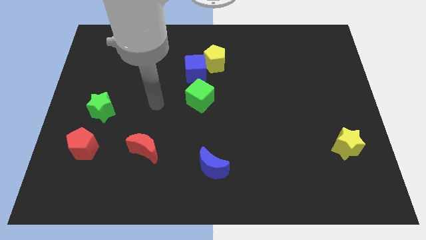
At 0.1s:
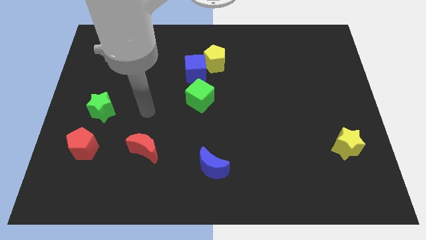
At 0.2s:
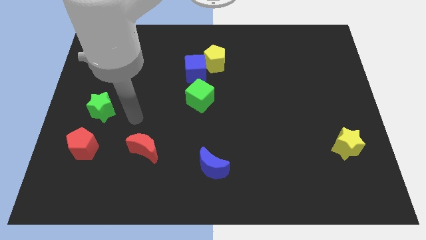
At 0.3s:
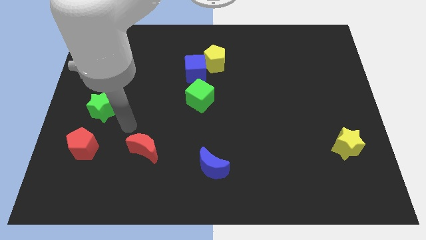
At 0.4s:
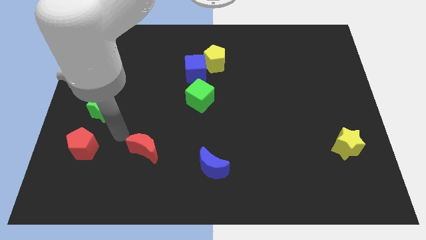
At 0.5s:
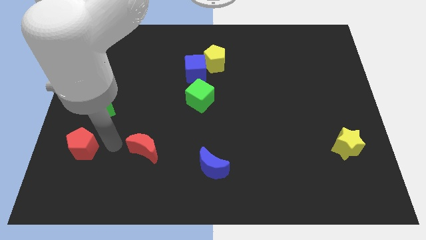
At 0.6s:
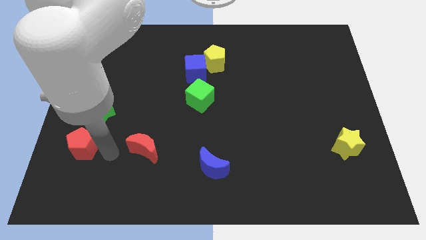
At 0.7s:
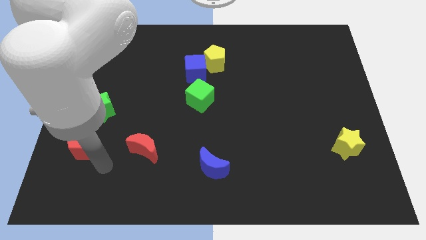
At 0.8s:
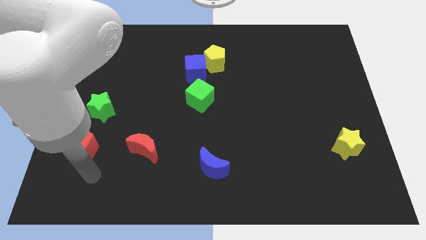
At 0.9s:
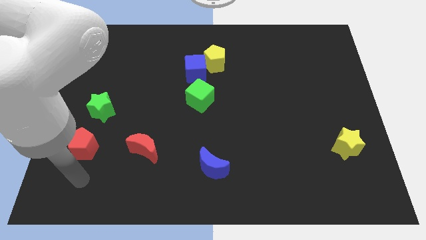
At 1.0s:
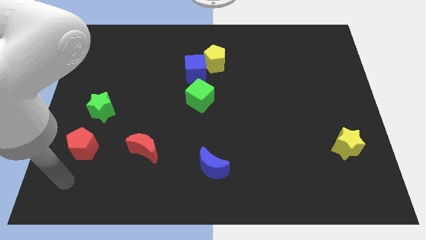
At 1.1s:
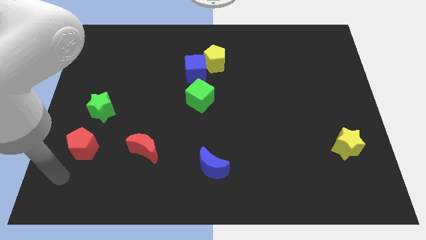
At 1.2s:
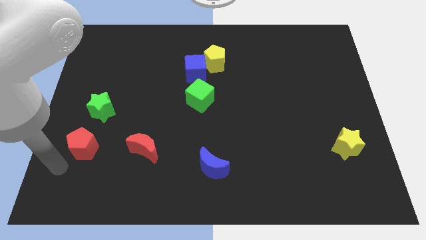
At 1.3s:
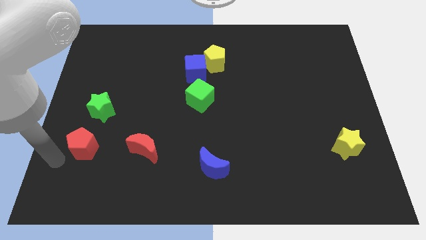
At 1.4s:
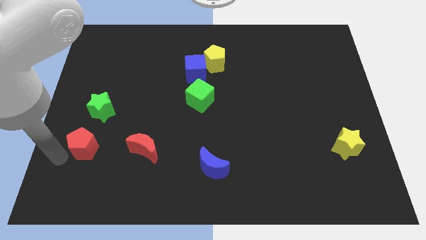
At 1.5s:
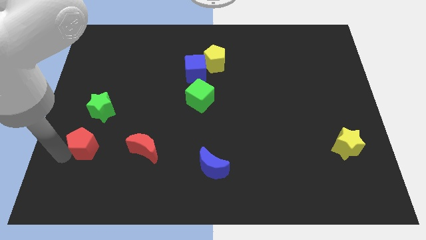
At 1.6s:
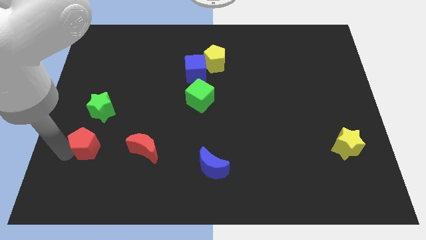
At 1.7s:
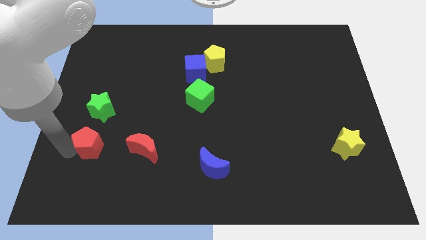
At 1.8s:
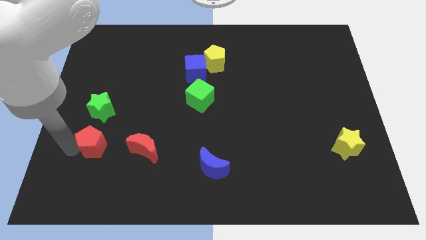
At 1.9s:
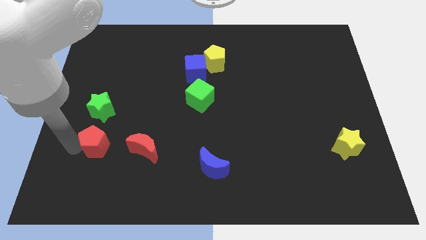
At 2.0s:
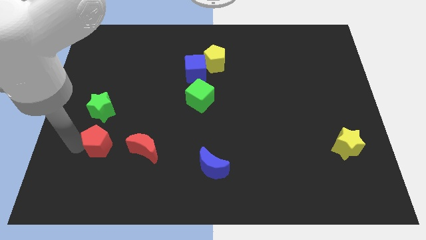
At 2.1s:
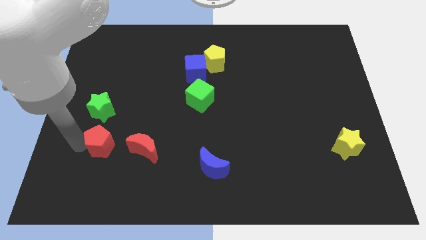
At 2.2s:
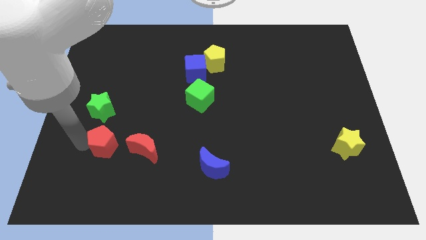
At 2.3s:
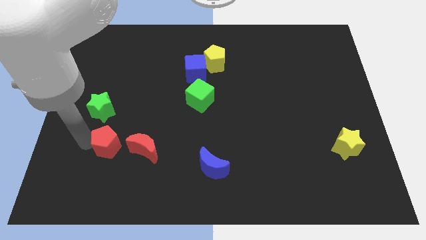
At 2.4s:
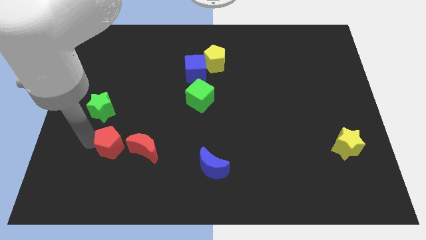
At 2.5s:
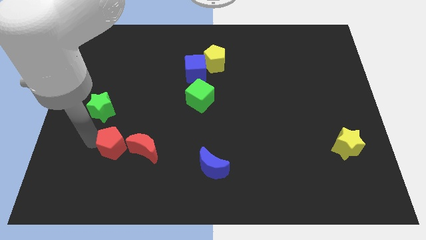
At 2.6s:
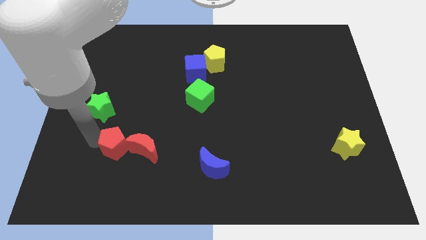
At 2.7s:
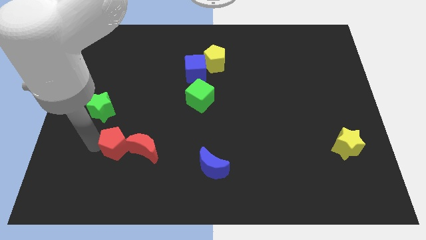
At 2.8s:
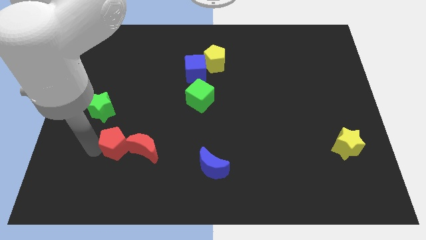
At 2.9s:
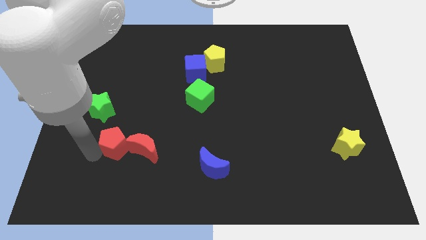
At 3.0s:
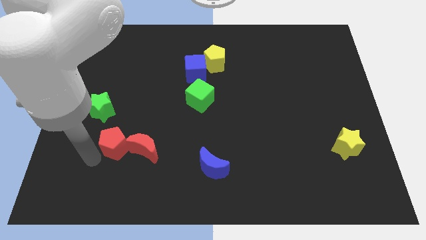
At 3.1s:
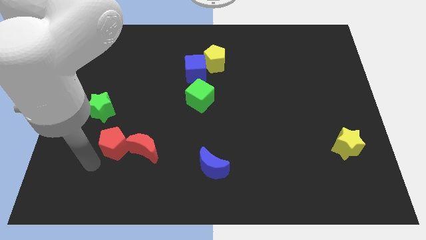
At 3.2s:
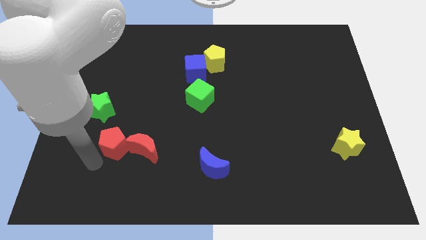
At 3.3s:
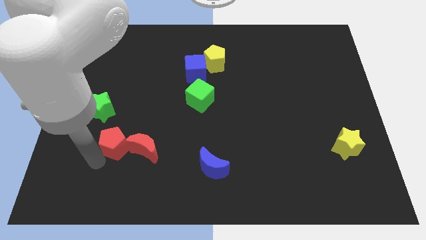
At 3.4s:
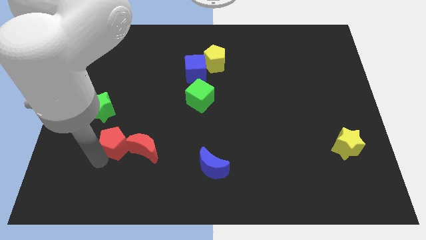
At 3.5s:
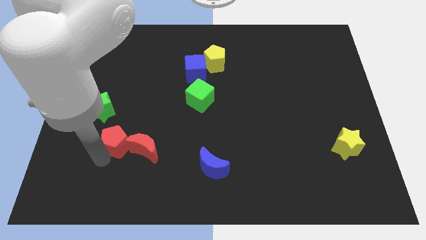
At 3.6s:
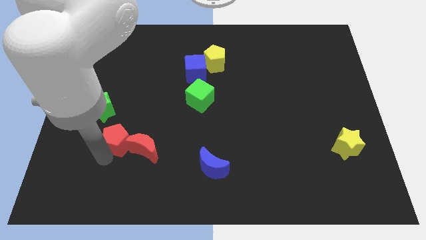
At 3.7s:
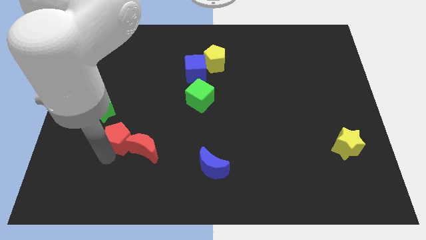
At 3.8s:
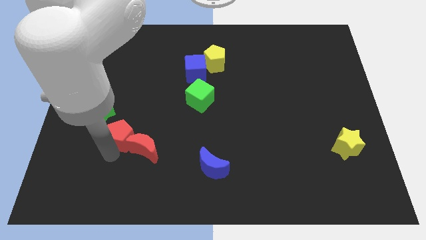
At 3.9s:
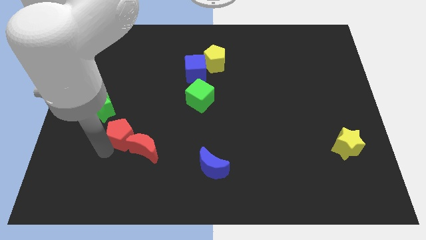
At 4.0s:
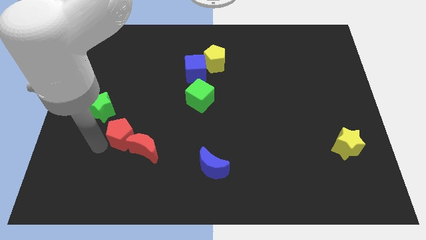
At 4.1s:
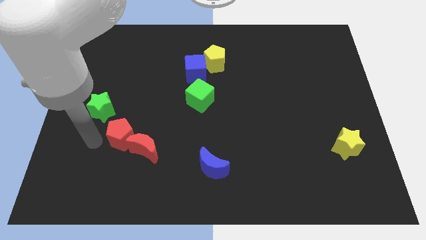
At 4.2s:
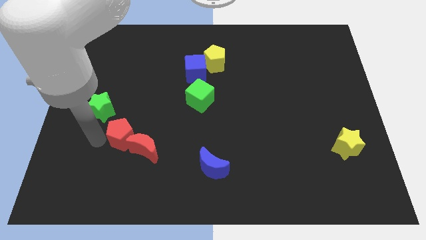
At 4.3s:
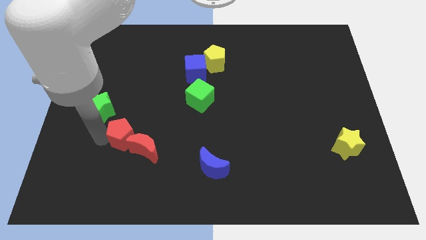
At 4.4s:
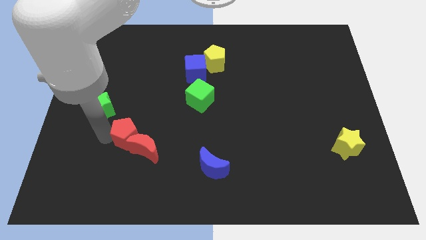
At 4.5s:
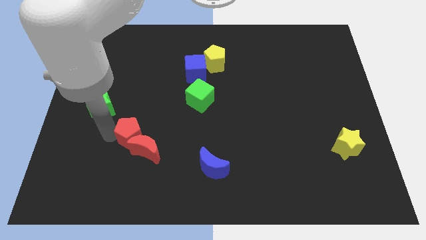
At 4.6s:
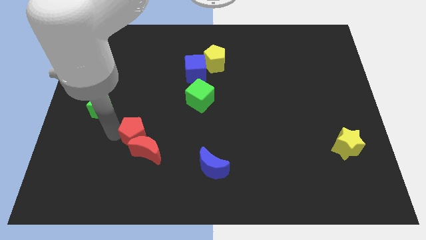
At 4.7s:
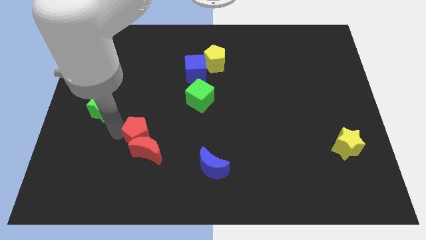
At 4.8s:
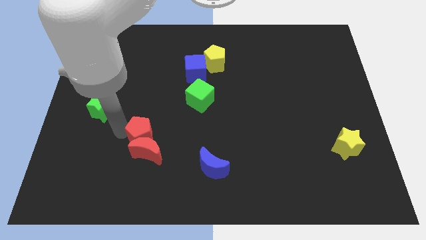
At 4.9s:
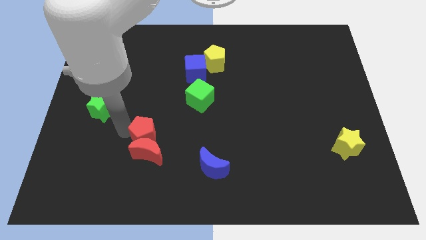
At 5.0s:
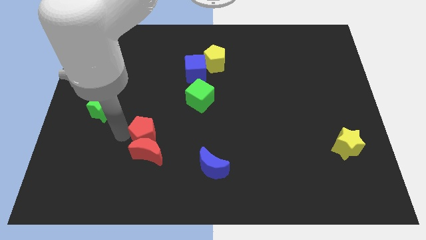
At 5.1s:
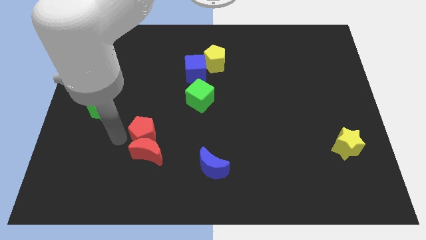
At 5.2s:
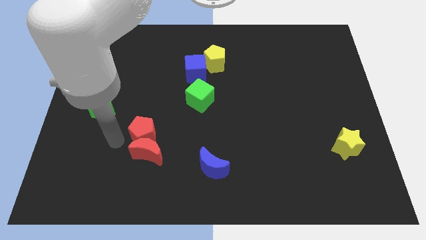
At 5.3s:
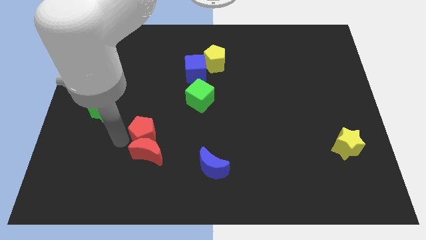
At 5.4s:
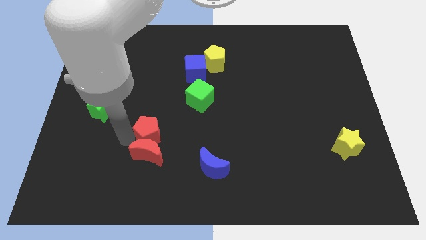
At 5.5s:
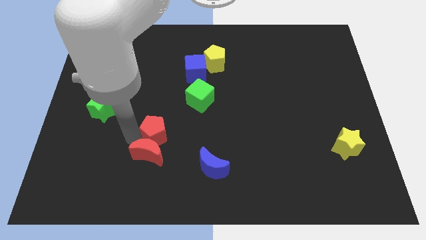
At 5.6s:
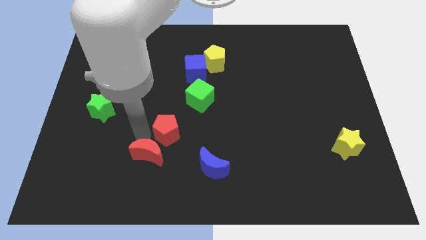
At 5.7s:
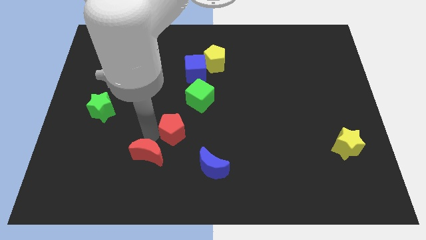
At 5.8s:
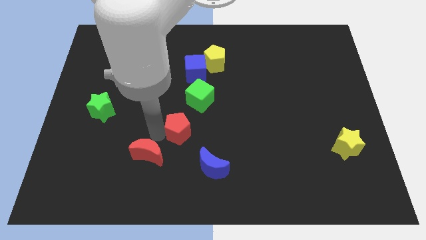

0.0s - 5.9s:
slide the red pentagon to the right

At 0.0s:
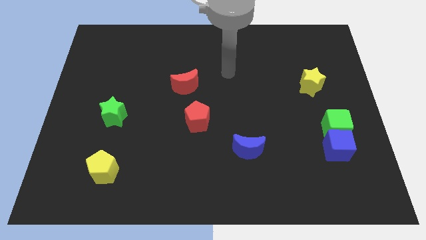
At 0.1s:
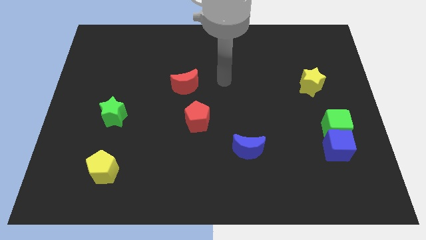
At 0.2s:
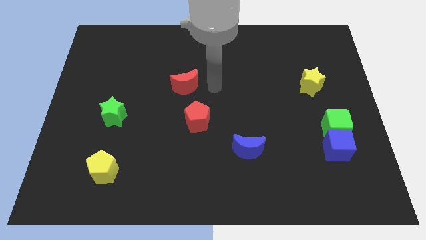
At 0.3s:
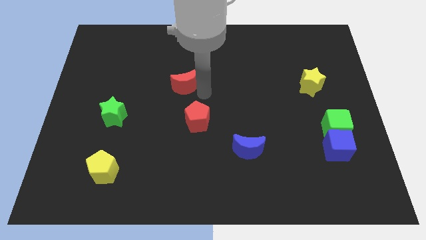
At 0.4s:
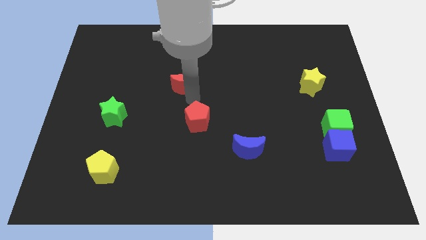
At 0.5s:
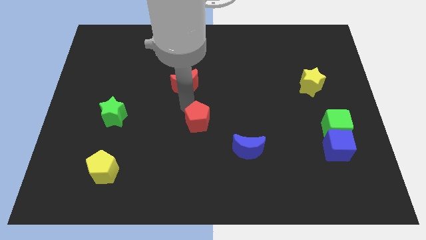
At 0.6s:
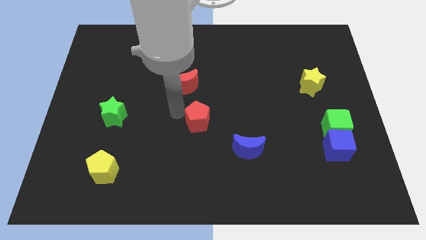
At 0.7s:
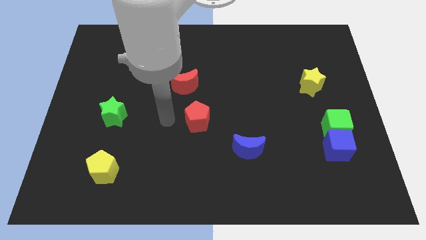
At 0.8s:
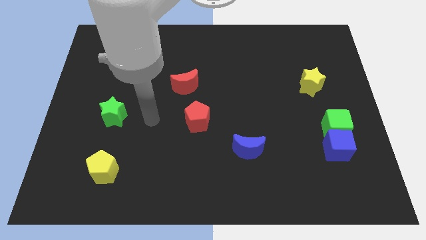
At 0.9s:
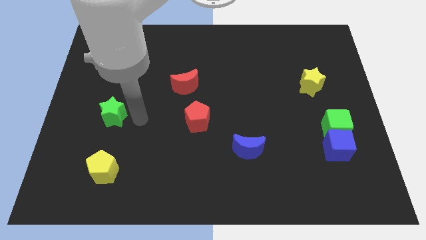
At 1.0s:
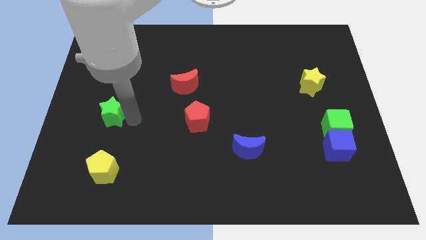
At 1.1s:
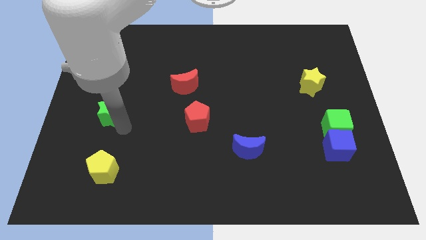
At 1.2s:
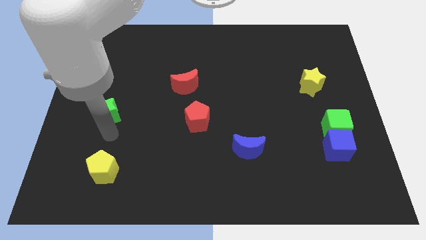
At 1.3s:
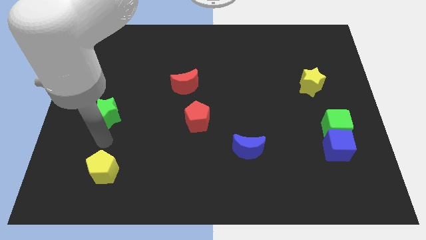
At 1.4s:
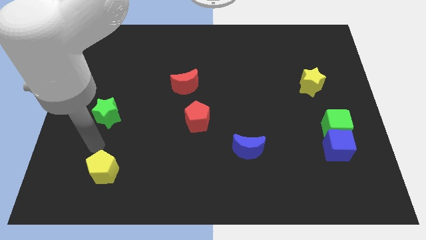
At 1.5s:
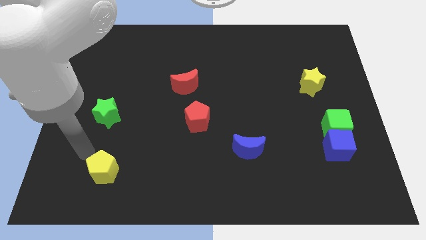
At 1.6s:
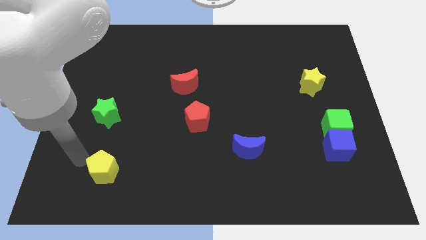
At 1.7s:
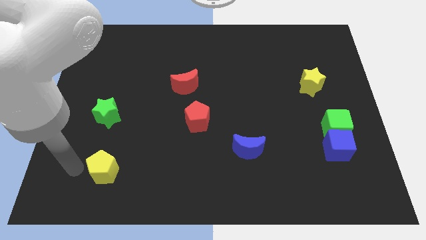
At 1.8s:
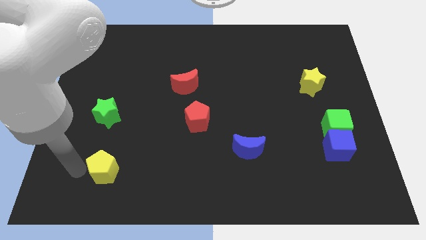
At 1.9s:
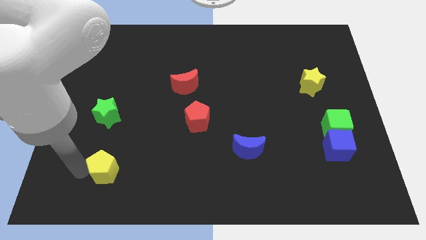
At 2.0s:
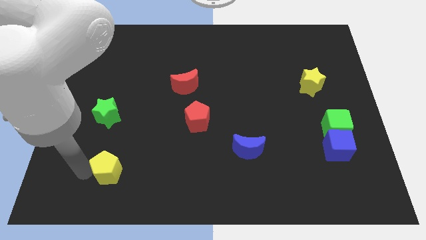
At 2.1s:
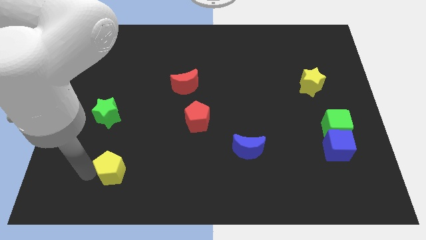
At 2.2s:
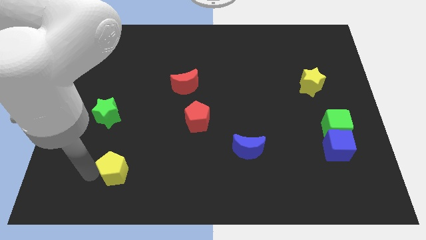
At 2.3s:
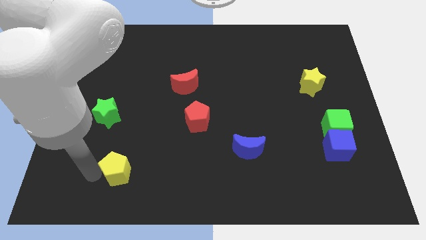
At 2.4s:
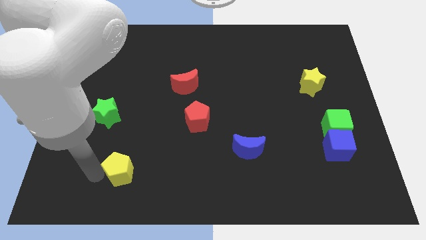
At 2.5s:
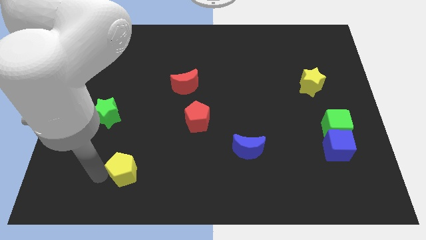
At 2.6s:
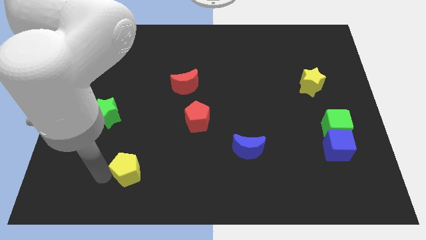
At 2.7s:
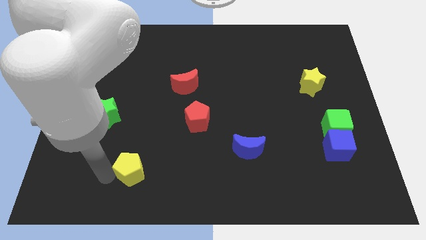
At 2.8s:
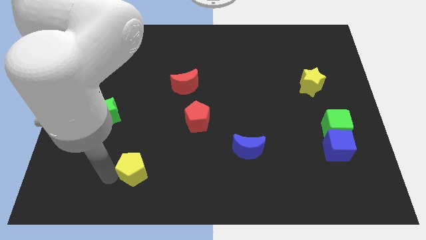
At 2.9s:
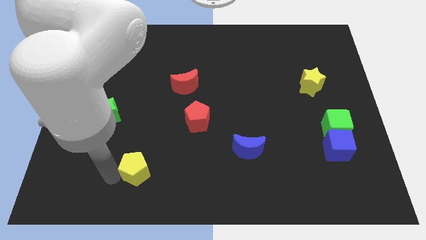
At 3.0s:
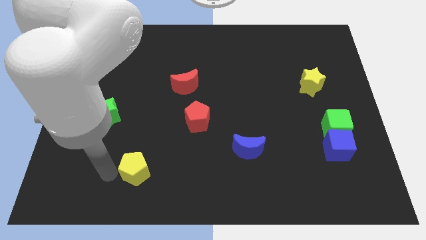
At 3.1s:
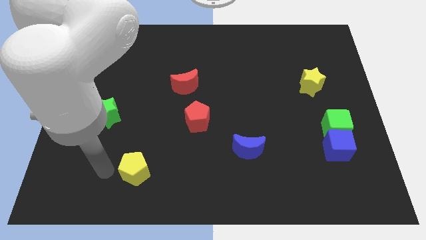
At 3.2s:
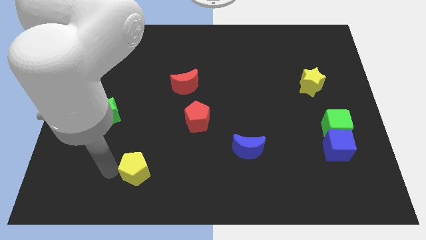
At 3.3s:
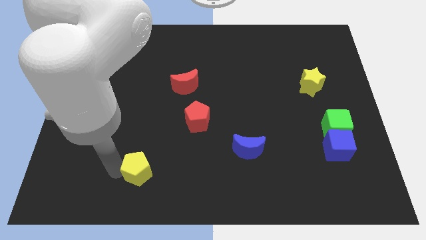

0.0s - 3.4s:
slightly move the yellow pentagon to the right
